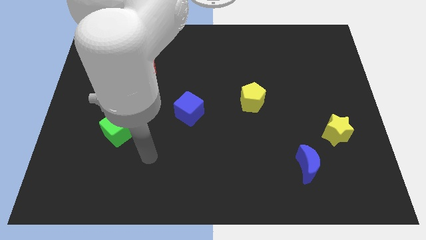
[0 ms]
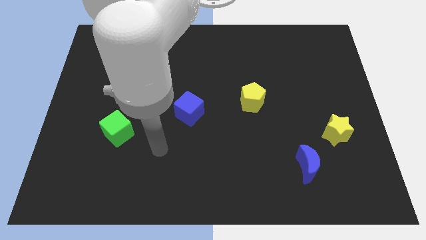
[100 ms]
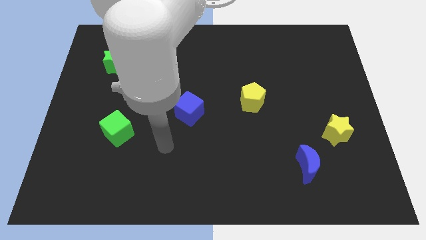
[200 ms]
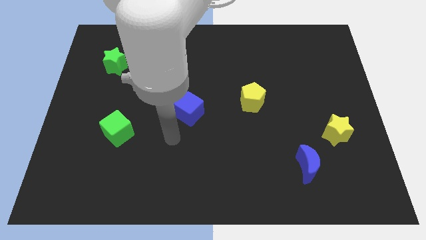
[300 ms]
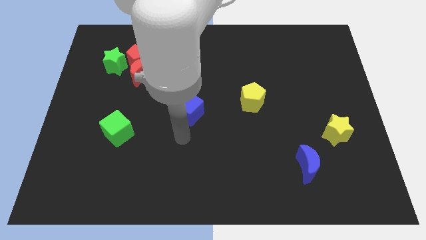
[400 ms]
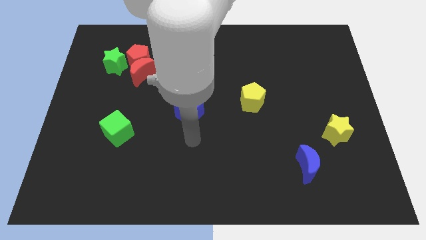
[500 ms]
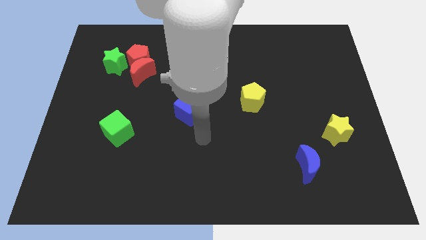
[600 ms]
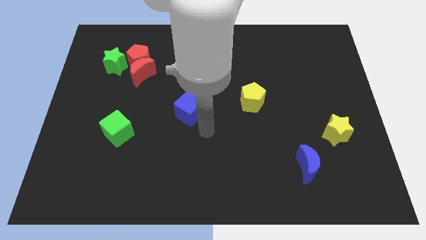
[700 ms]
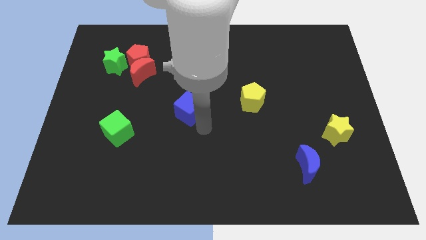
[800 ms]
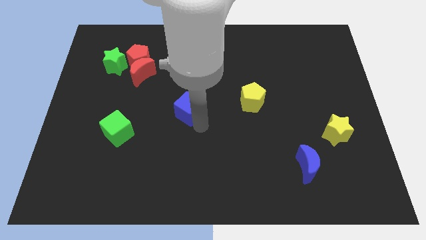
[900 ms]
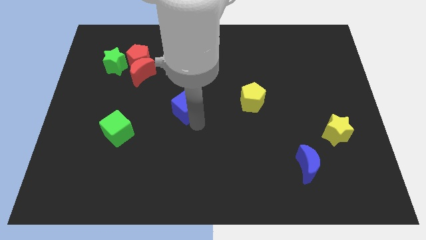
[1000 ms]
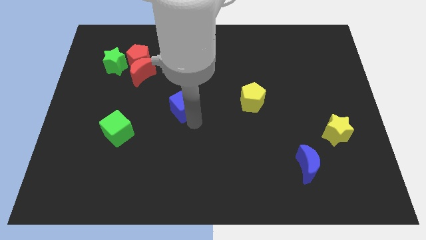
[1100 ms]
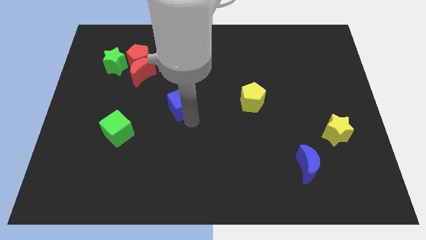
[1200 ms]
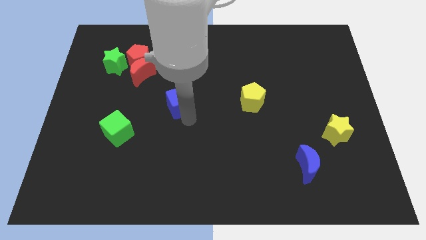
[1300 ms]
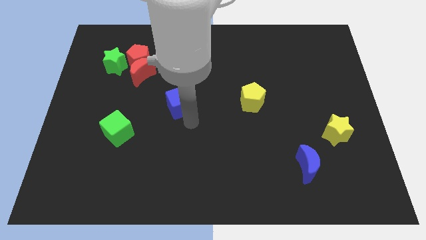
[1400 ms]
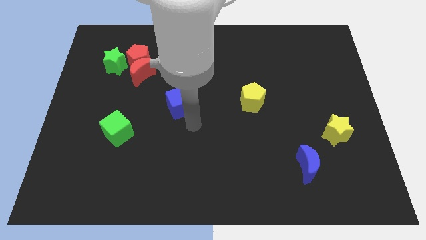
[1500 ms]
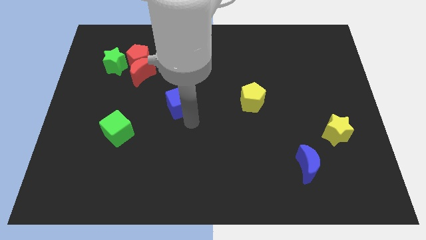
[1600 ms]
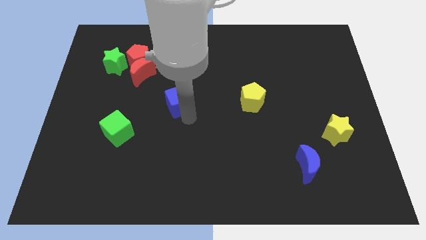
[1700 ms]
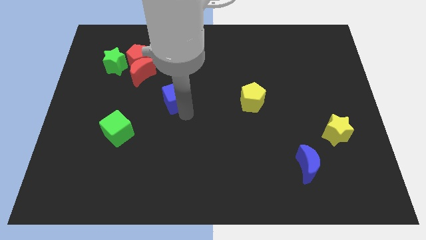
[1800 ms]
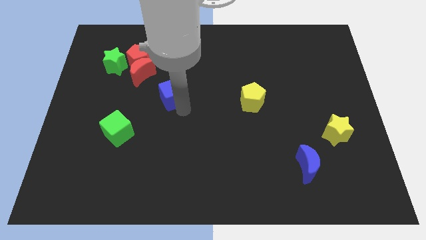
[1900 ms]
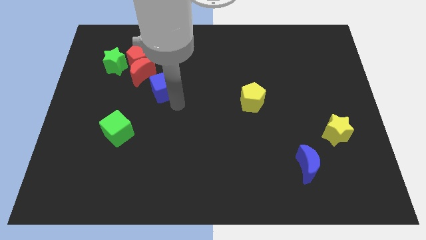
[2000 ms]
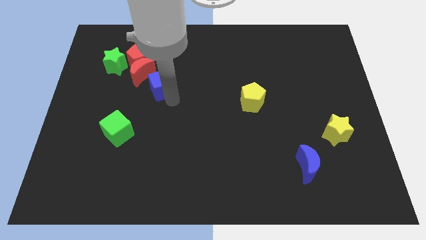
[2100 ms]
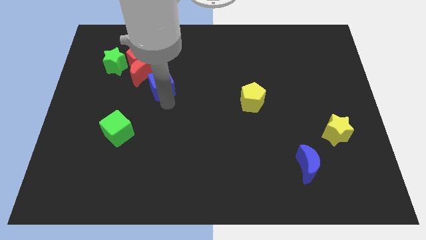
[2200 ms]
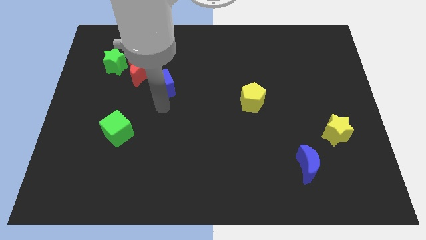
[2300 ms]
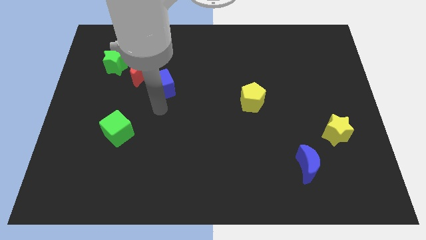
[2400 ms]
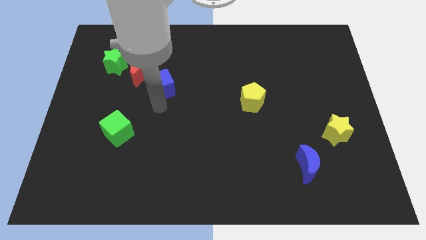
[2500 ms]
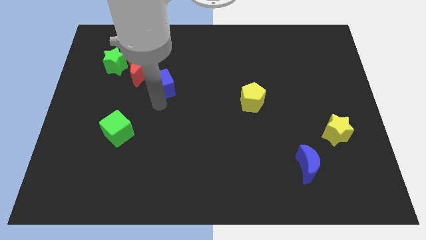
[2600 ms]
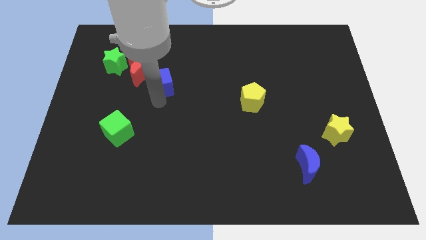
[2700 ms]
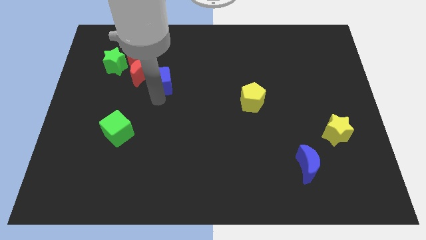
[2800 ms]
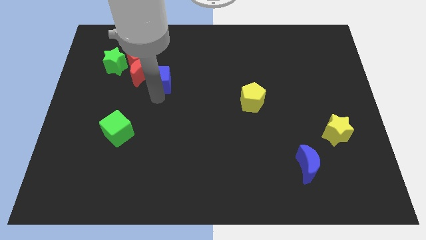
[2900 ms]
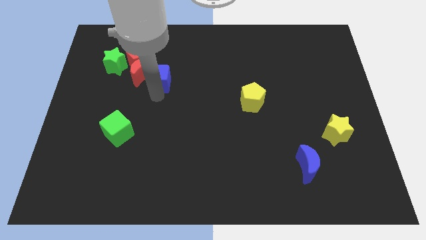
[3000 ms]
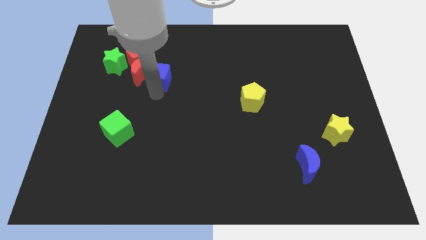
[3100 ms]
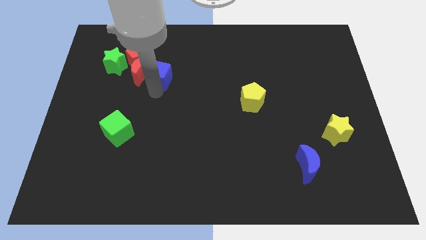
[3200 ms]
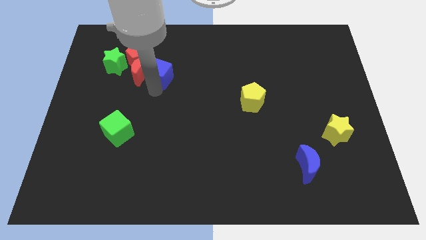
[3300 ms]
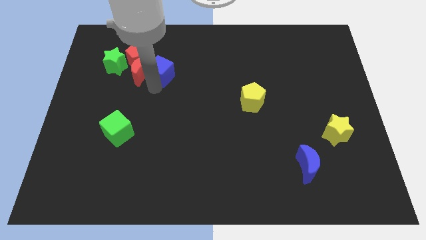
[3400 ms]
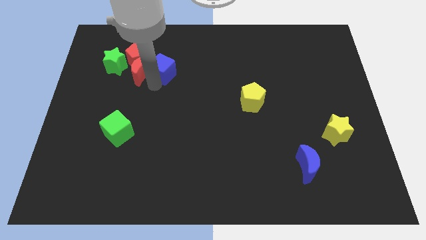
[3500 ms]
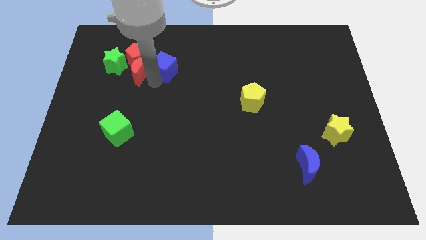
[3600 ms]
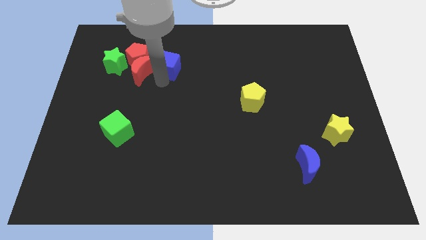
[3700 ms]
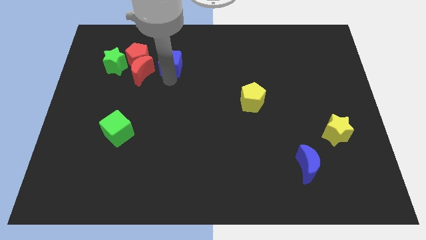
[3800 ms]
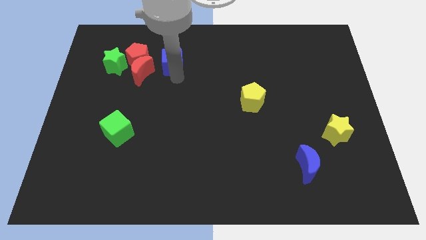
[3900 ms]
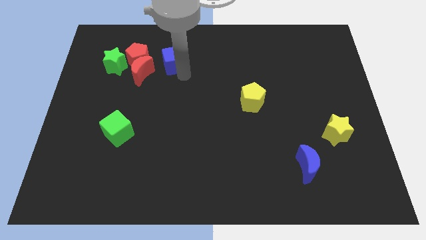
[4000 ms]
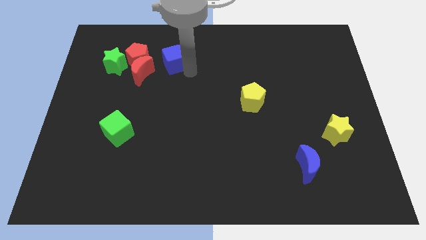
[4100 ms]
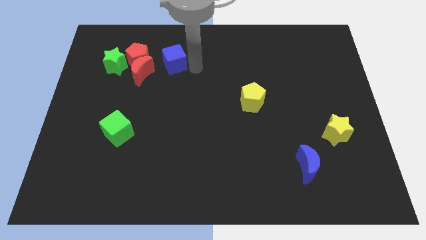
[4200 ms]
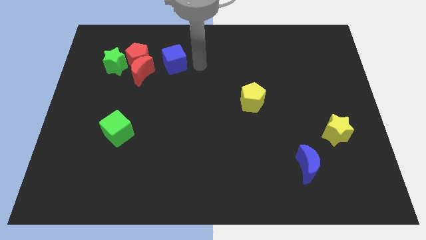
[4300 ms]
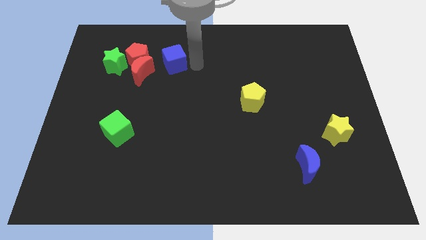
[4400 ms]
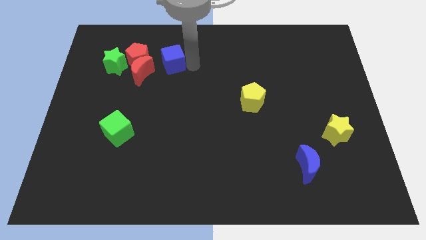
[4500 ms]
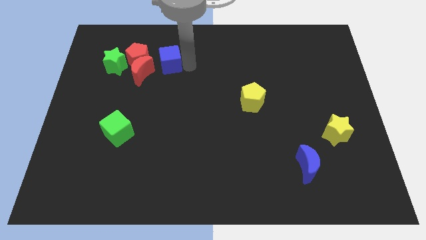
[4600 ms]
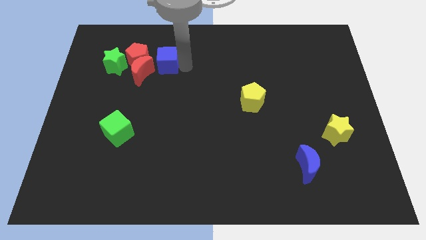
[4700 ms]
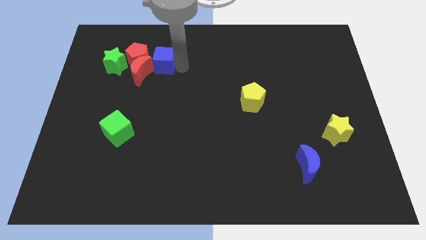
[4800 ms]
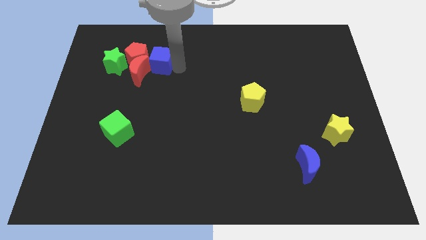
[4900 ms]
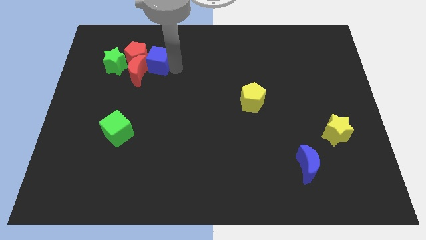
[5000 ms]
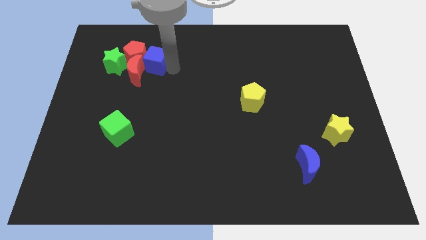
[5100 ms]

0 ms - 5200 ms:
push the blue cube to the red pentagon

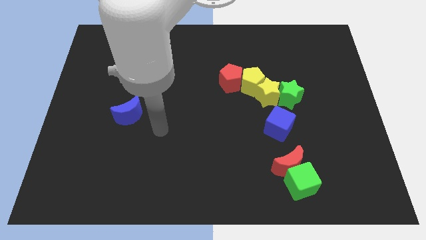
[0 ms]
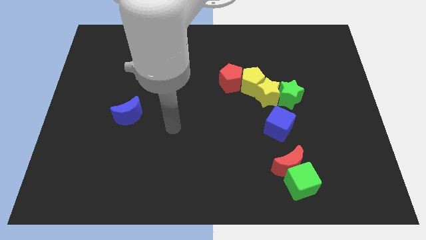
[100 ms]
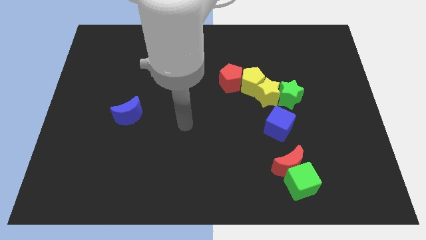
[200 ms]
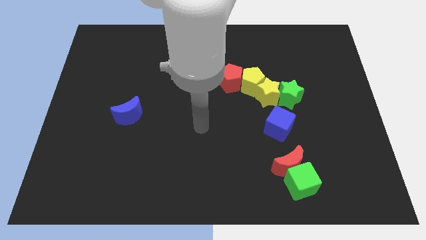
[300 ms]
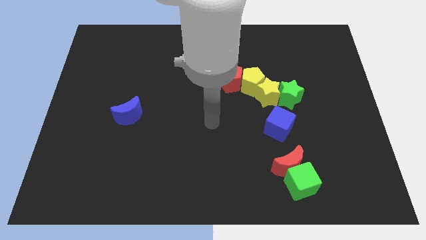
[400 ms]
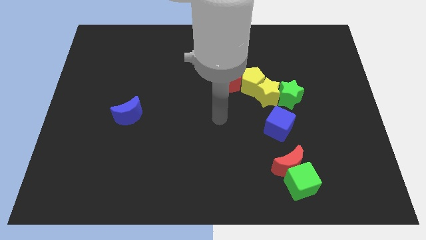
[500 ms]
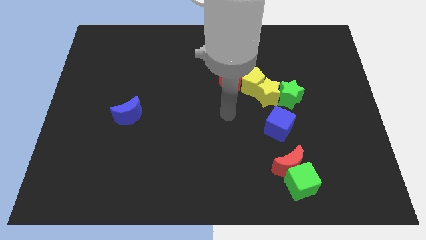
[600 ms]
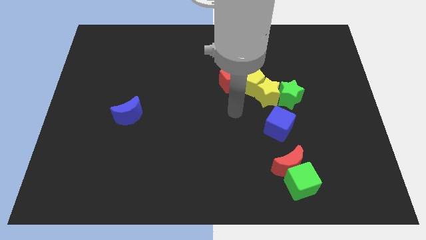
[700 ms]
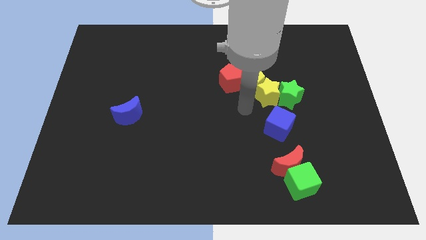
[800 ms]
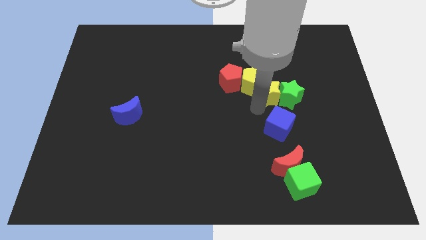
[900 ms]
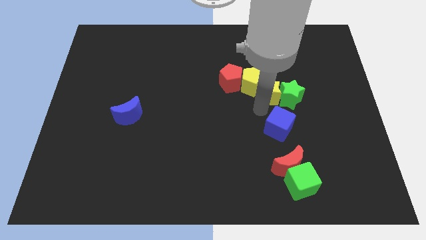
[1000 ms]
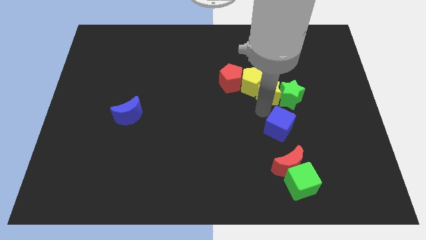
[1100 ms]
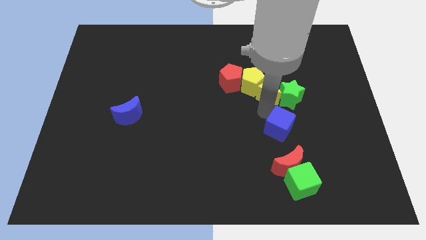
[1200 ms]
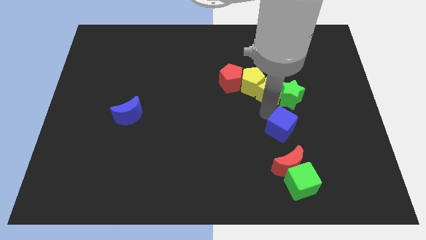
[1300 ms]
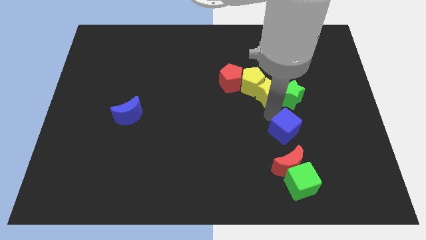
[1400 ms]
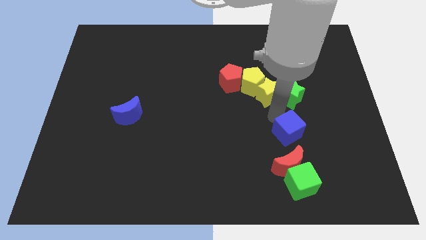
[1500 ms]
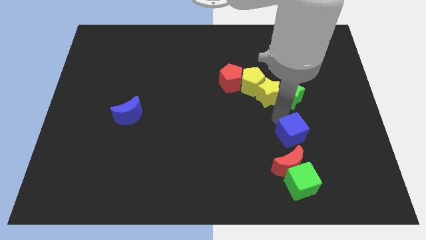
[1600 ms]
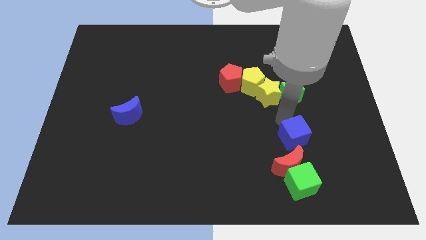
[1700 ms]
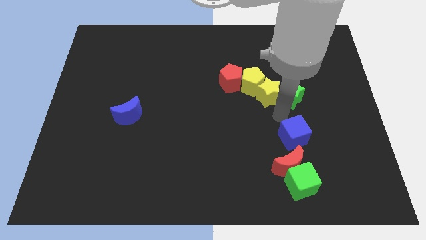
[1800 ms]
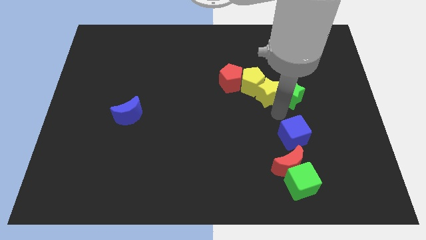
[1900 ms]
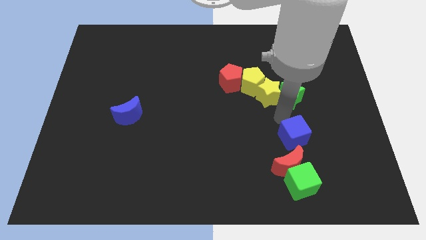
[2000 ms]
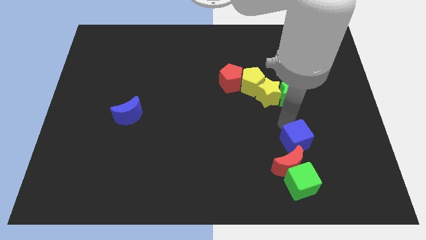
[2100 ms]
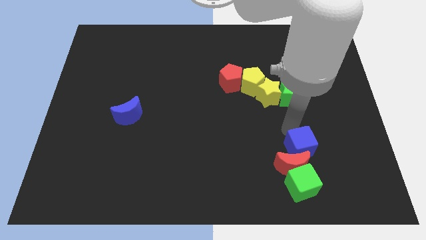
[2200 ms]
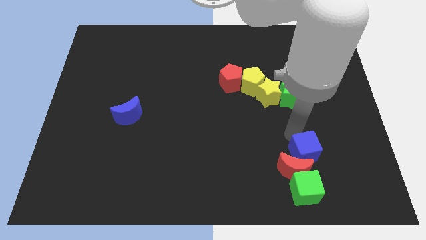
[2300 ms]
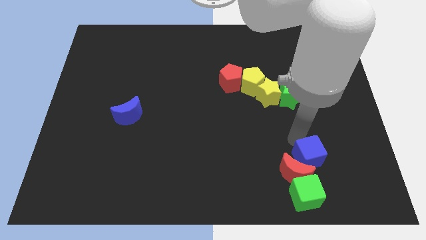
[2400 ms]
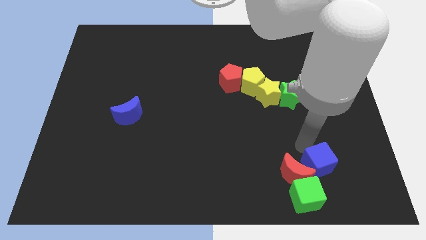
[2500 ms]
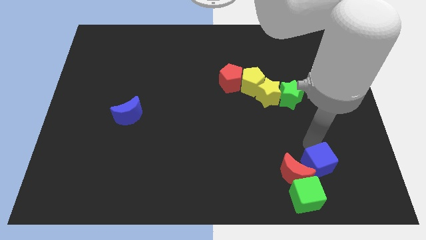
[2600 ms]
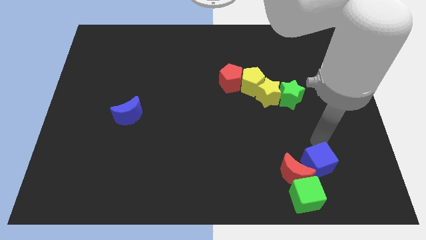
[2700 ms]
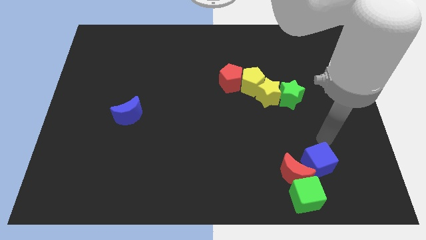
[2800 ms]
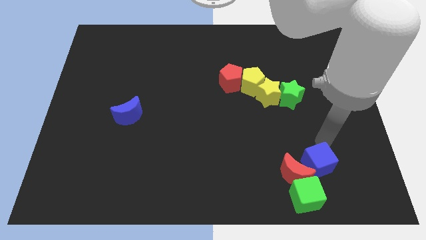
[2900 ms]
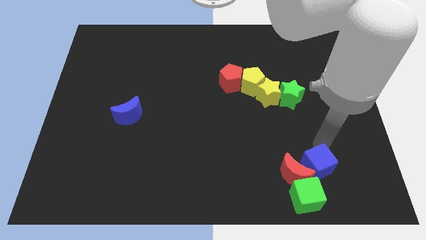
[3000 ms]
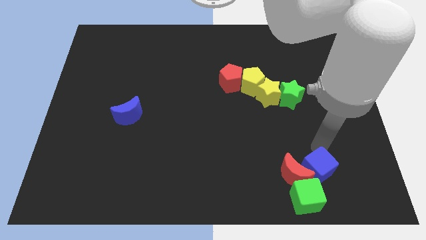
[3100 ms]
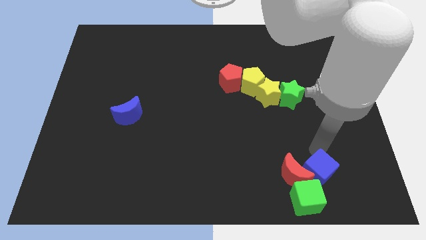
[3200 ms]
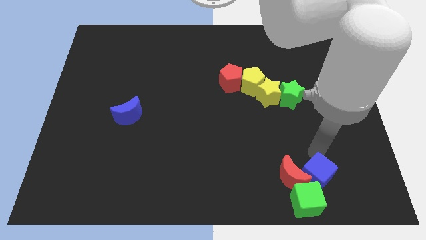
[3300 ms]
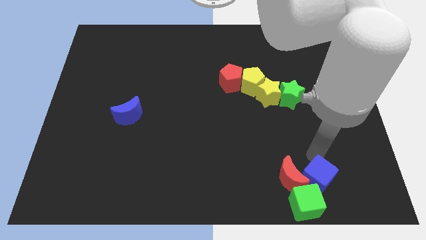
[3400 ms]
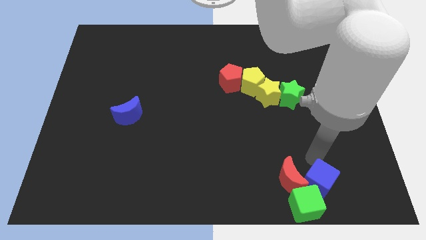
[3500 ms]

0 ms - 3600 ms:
put the blue cube to the green cube
